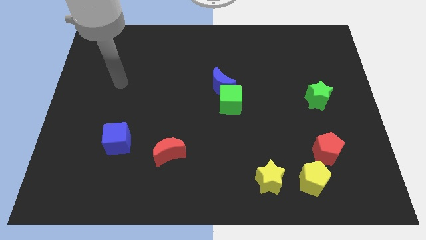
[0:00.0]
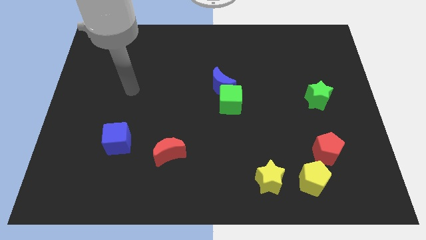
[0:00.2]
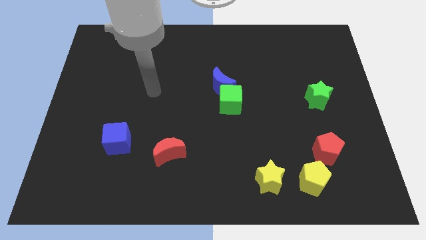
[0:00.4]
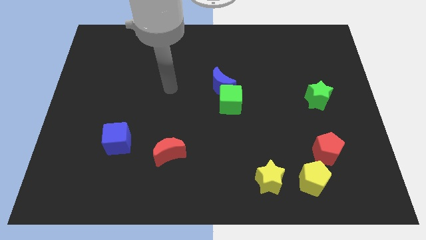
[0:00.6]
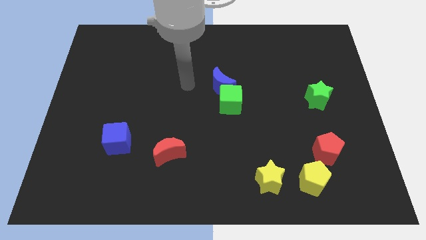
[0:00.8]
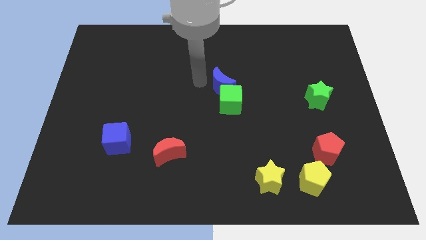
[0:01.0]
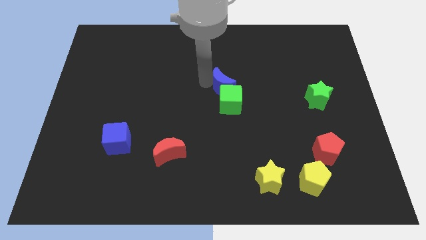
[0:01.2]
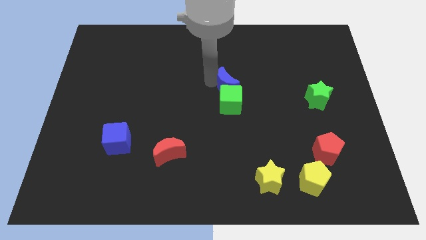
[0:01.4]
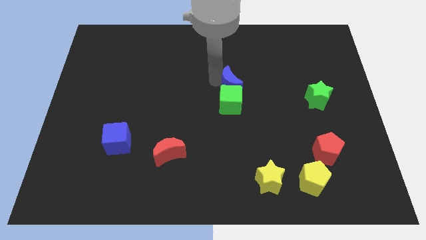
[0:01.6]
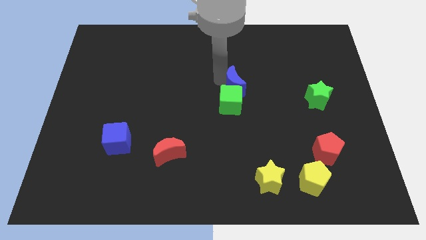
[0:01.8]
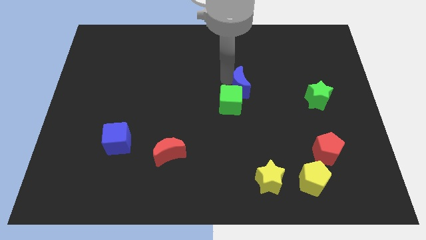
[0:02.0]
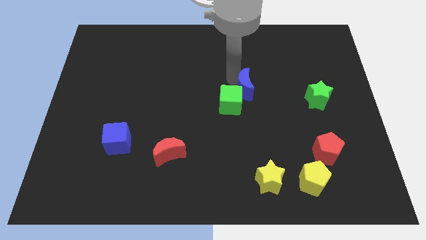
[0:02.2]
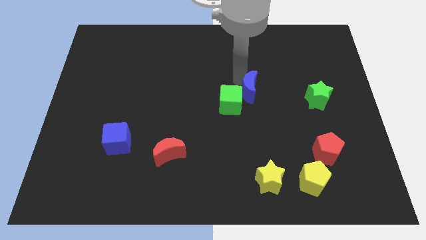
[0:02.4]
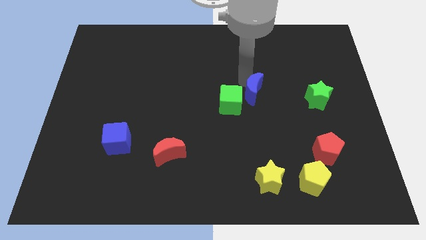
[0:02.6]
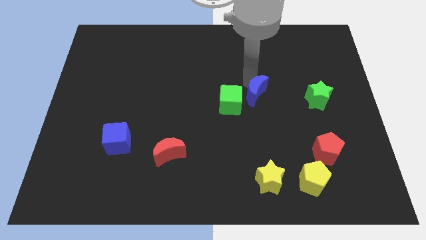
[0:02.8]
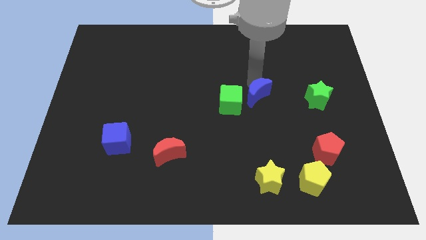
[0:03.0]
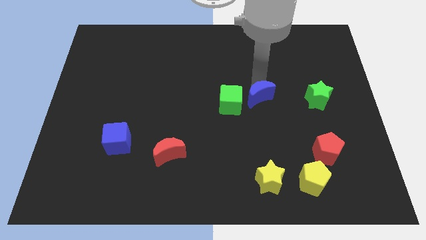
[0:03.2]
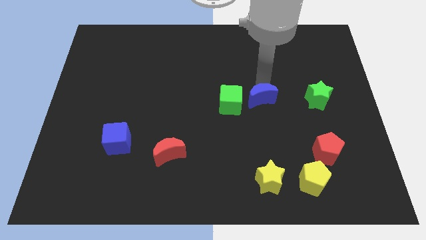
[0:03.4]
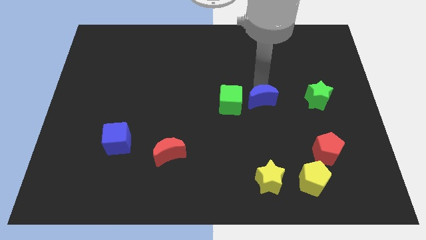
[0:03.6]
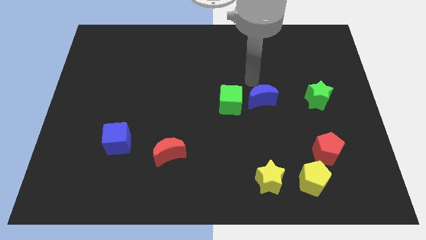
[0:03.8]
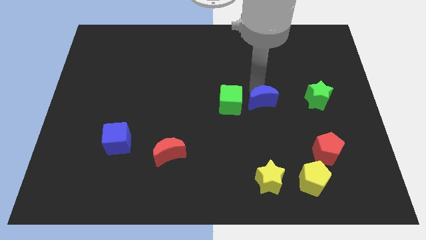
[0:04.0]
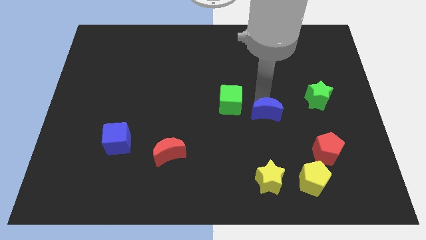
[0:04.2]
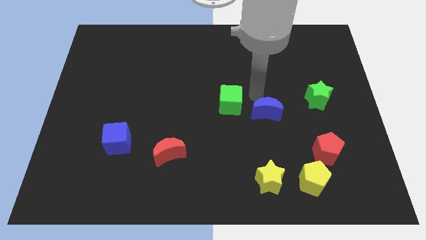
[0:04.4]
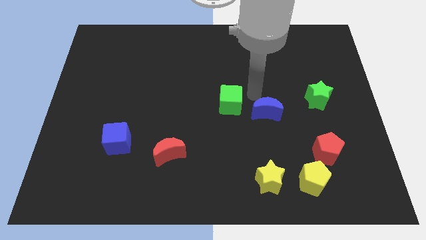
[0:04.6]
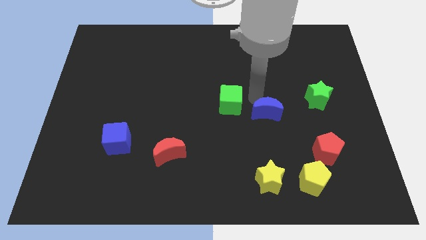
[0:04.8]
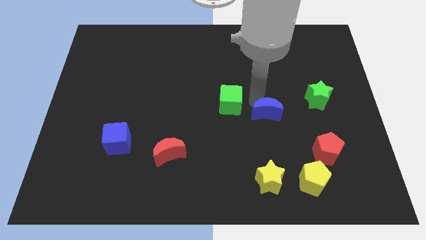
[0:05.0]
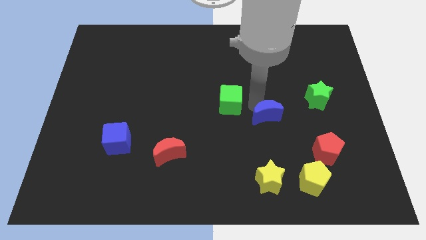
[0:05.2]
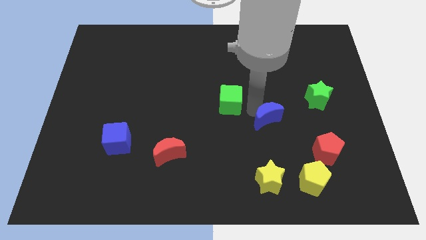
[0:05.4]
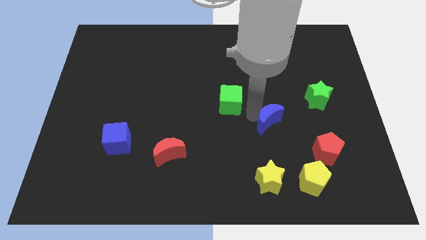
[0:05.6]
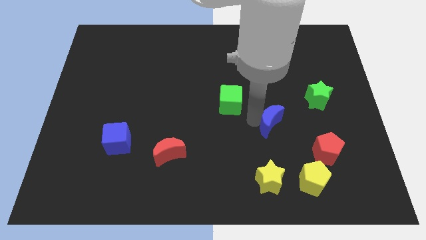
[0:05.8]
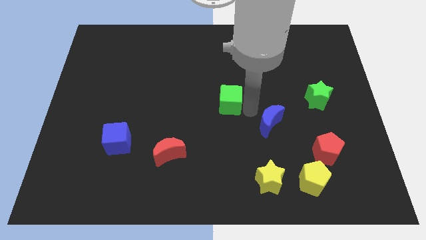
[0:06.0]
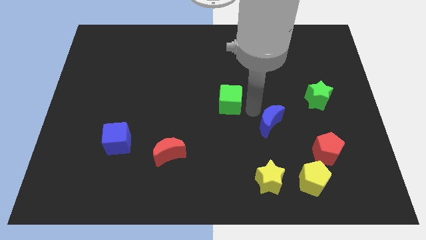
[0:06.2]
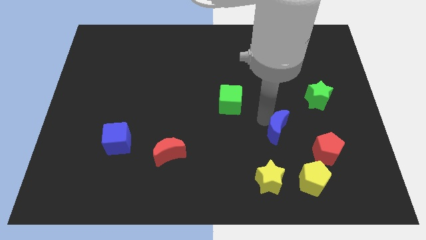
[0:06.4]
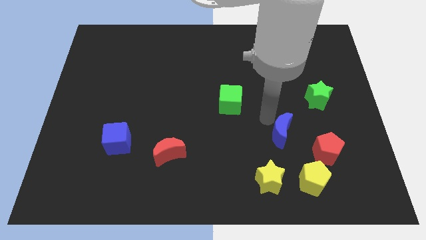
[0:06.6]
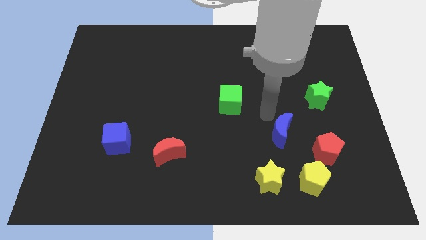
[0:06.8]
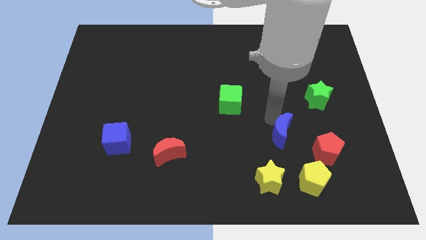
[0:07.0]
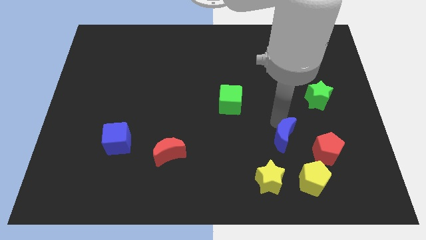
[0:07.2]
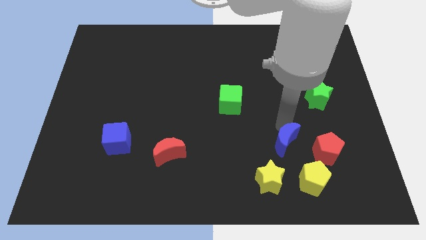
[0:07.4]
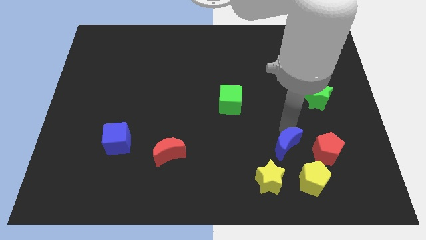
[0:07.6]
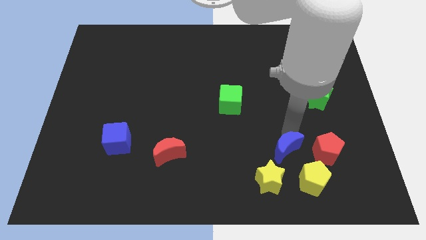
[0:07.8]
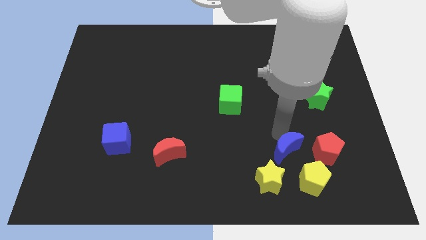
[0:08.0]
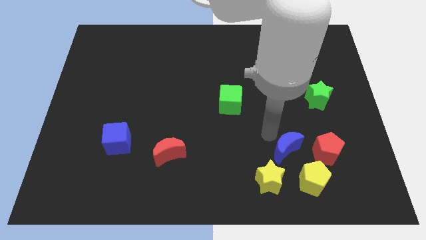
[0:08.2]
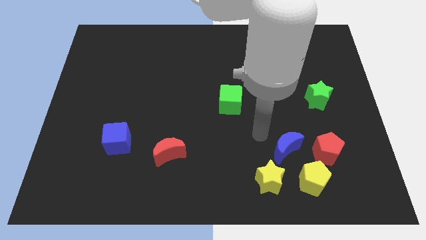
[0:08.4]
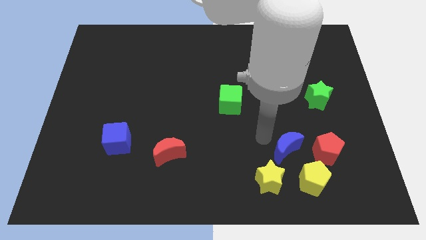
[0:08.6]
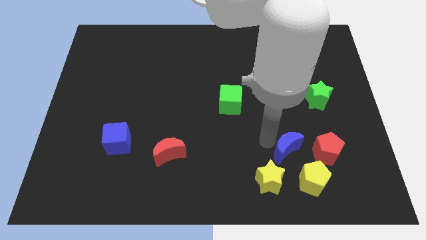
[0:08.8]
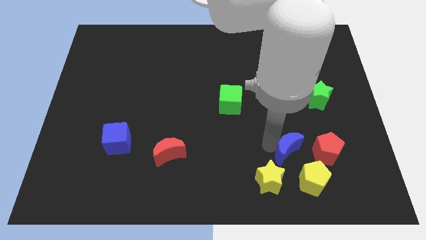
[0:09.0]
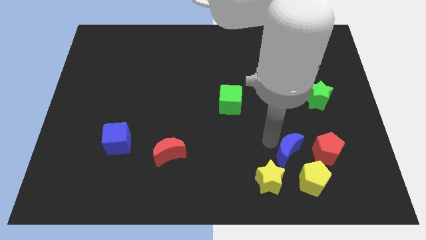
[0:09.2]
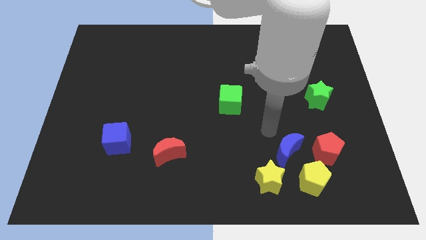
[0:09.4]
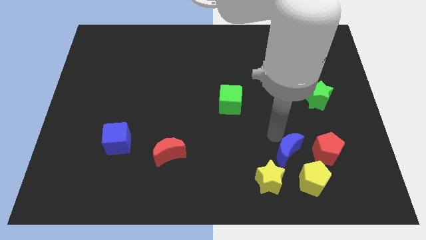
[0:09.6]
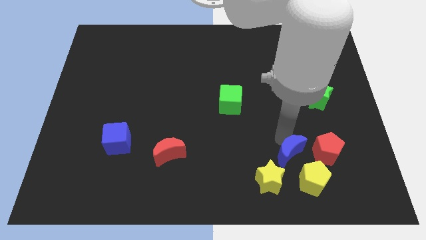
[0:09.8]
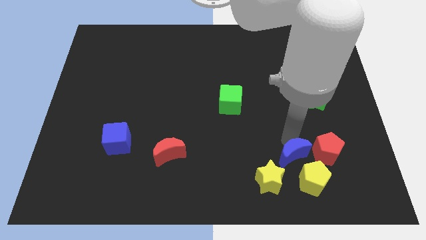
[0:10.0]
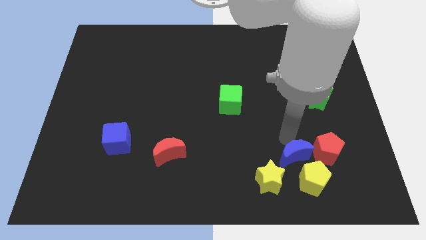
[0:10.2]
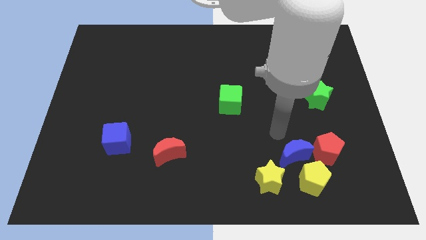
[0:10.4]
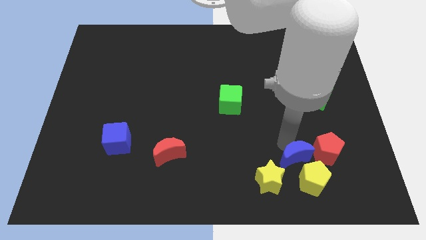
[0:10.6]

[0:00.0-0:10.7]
move the blue moon close to the yellow pentagon

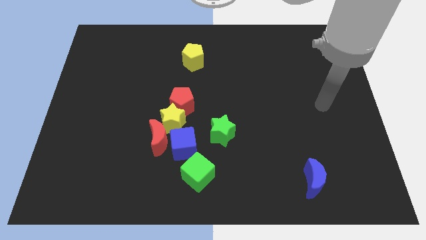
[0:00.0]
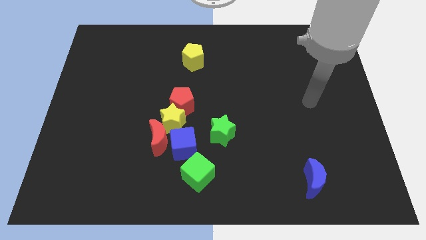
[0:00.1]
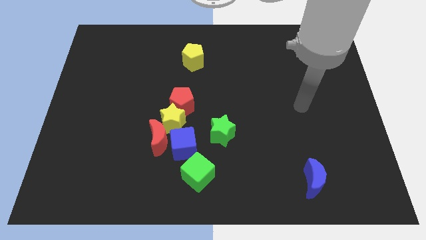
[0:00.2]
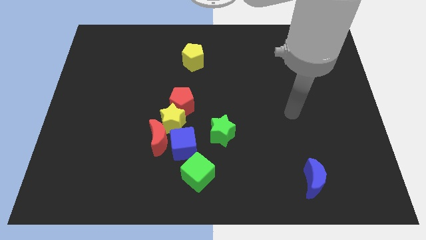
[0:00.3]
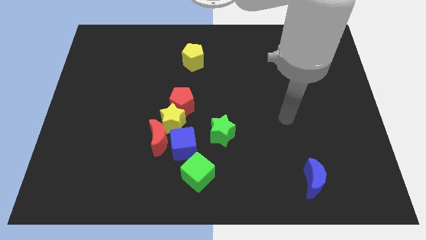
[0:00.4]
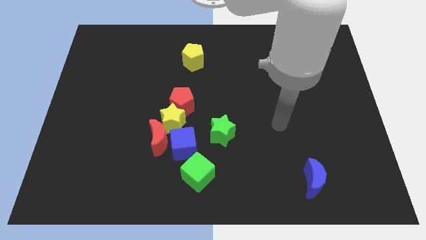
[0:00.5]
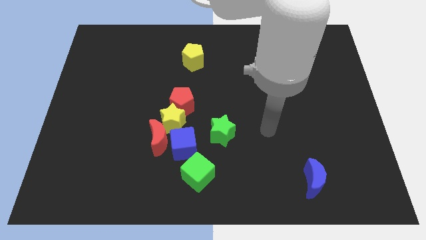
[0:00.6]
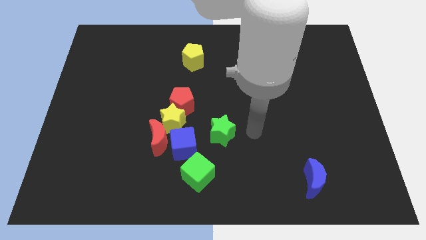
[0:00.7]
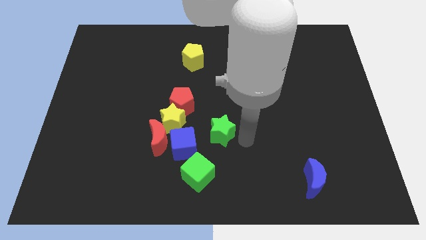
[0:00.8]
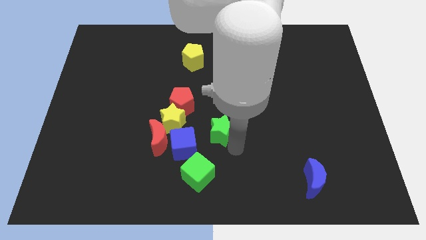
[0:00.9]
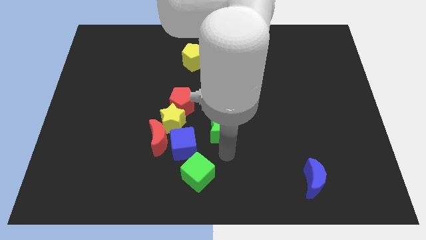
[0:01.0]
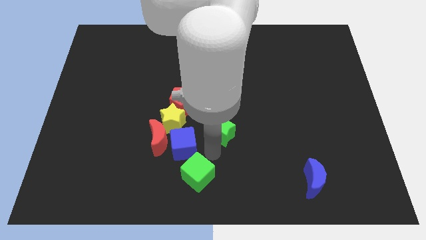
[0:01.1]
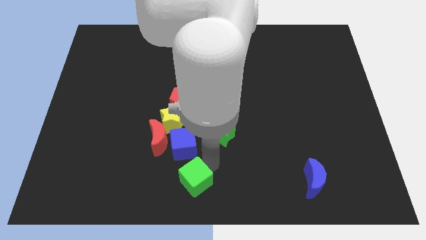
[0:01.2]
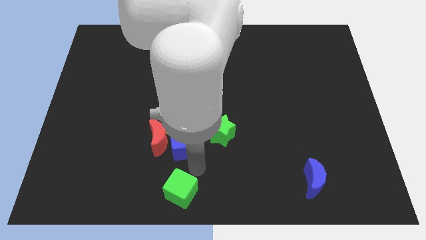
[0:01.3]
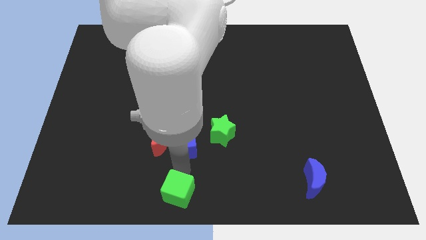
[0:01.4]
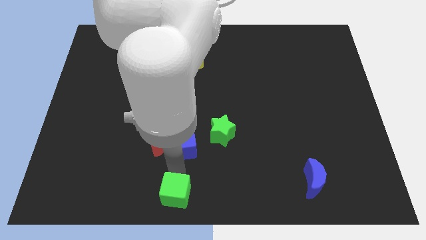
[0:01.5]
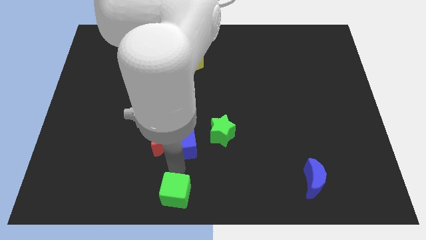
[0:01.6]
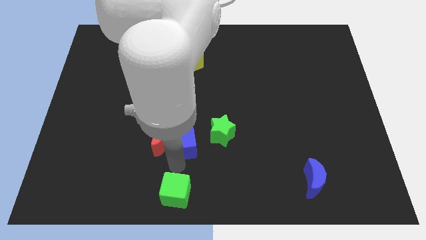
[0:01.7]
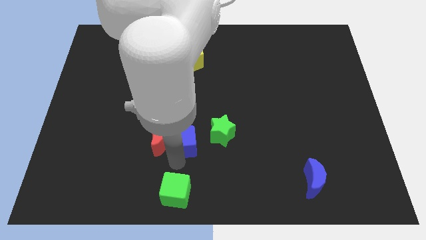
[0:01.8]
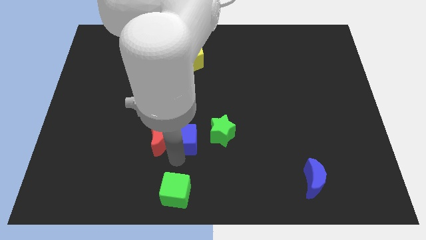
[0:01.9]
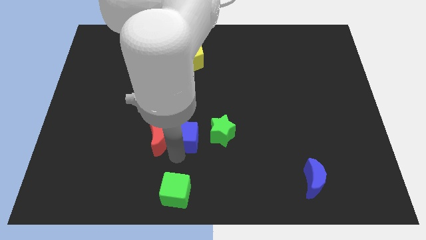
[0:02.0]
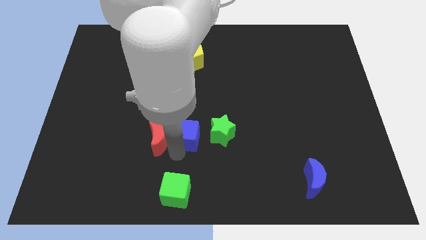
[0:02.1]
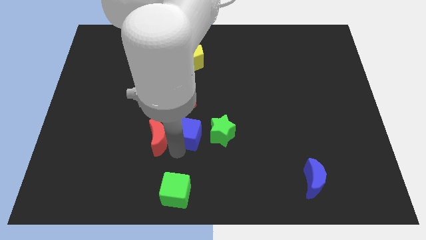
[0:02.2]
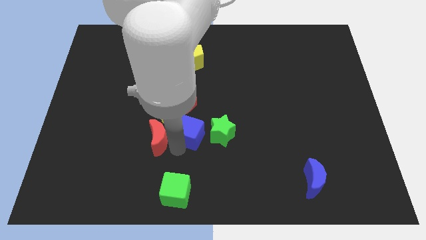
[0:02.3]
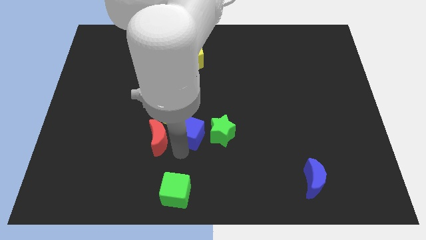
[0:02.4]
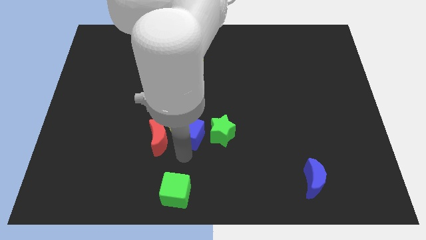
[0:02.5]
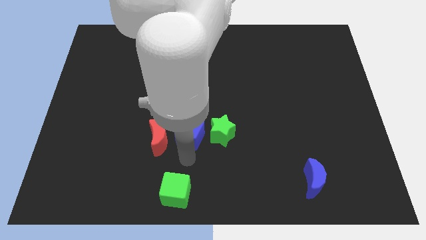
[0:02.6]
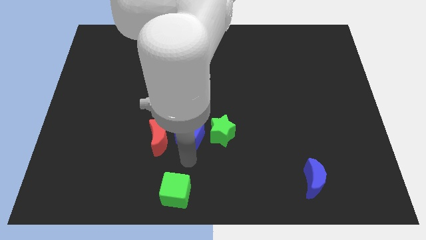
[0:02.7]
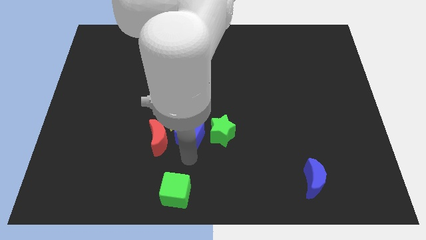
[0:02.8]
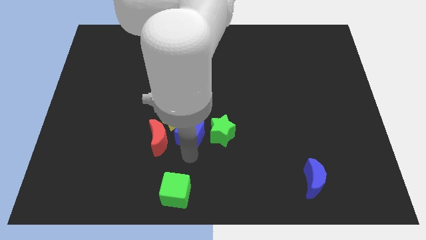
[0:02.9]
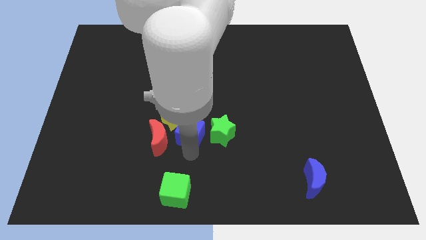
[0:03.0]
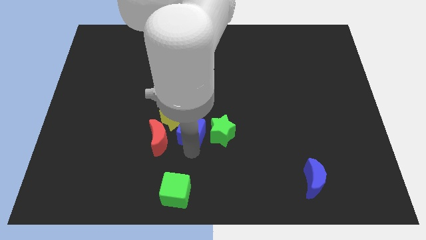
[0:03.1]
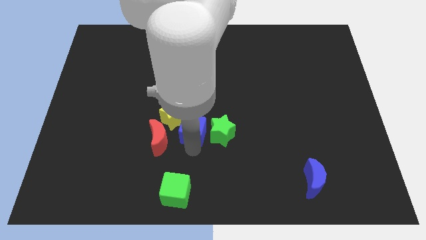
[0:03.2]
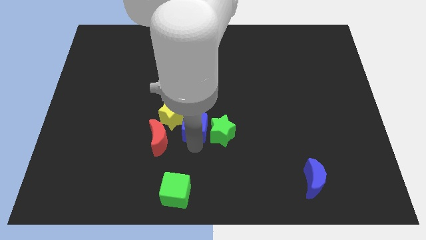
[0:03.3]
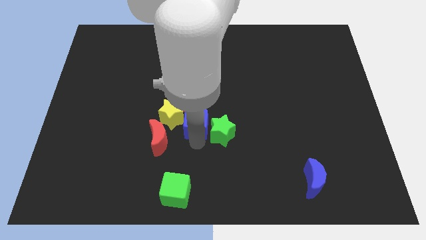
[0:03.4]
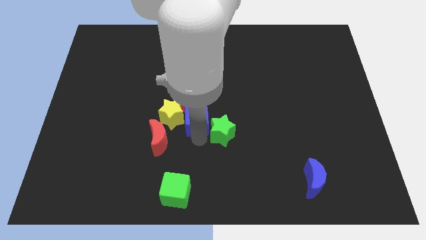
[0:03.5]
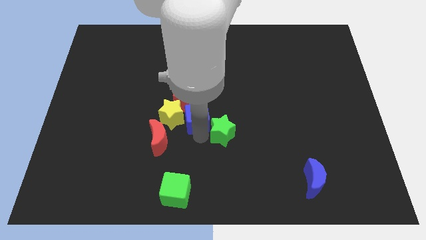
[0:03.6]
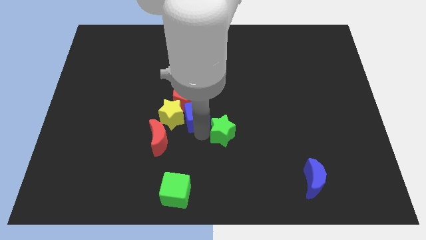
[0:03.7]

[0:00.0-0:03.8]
push the blue cube next to the red pentagon
